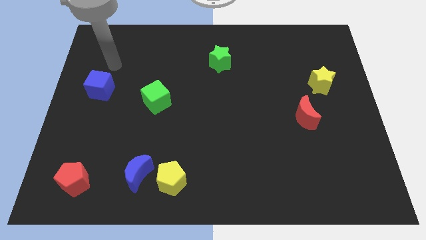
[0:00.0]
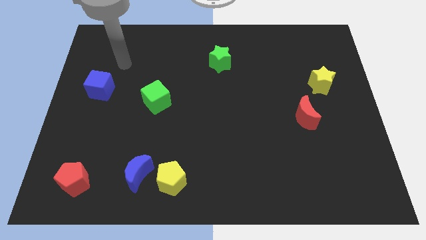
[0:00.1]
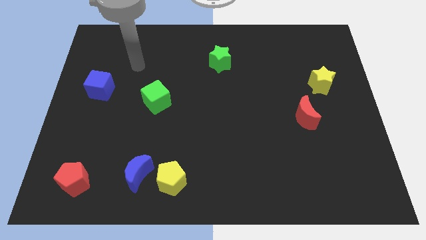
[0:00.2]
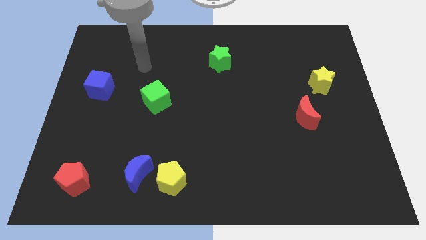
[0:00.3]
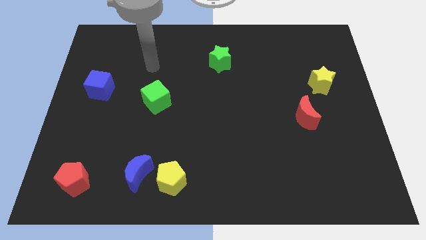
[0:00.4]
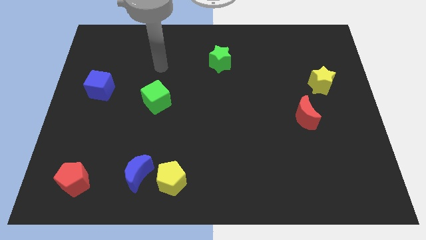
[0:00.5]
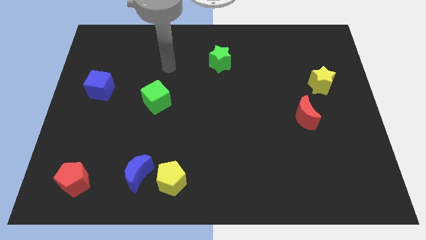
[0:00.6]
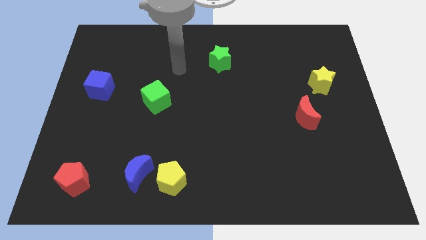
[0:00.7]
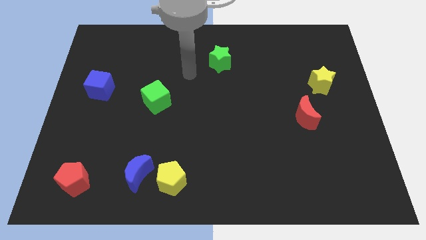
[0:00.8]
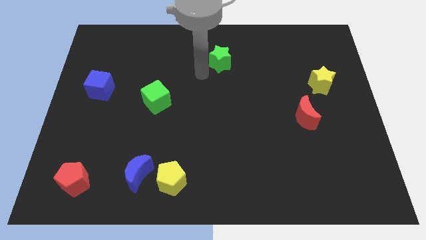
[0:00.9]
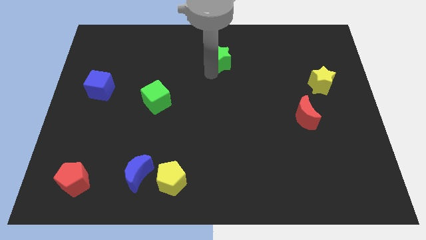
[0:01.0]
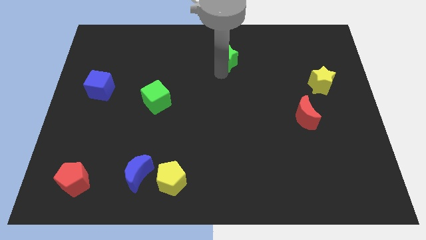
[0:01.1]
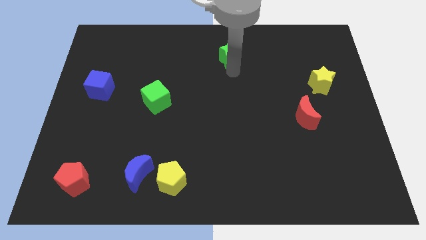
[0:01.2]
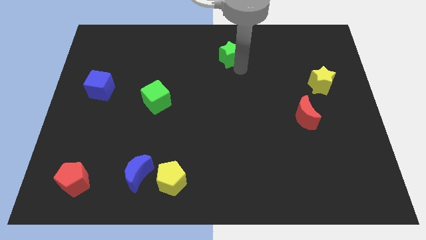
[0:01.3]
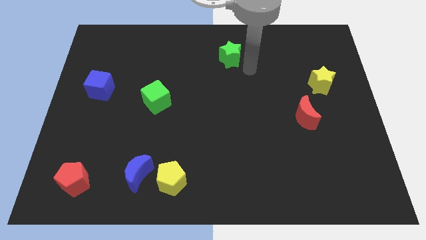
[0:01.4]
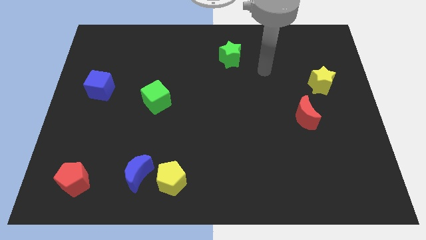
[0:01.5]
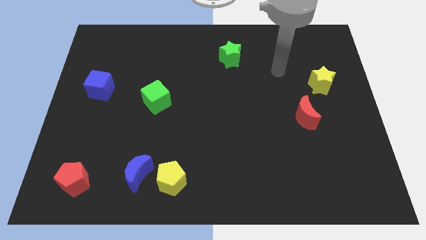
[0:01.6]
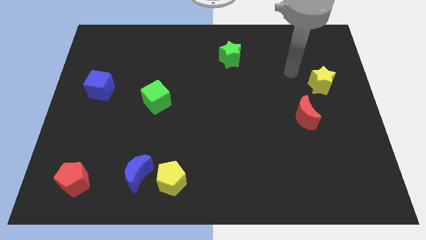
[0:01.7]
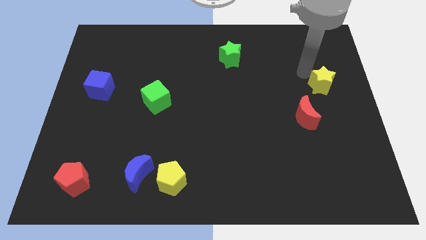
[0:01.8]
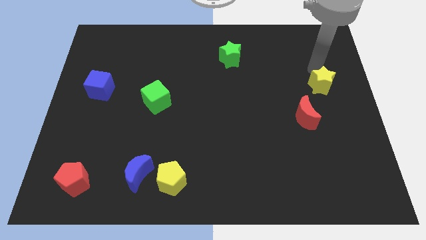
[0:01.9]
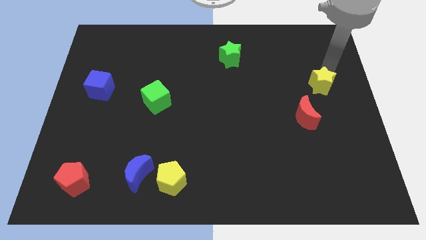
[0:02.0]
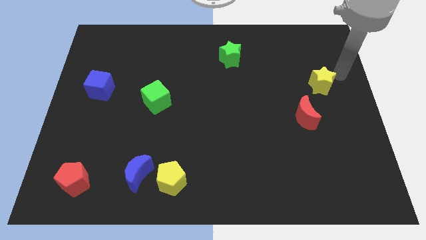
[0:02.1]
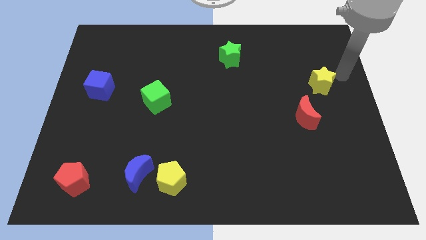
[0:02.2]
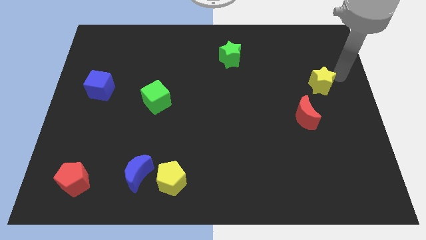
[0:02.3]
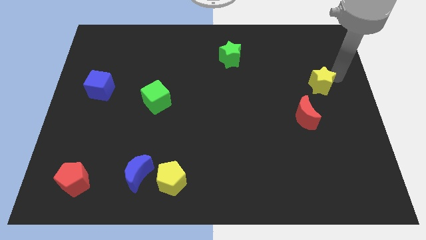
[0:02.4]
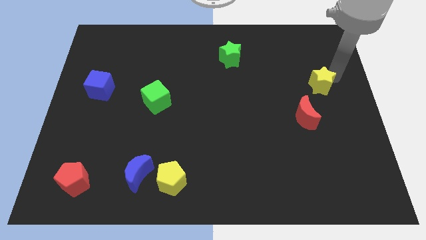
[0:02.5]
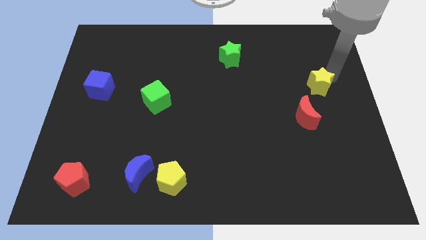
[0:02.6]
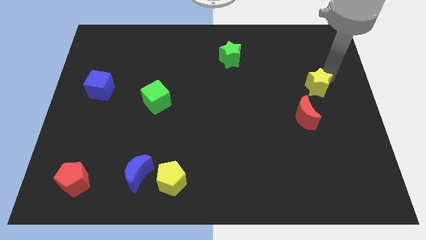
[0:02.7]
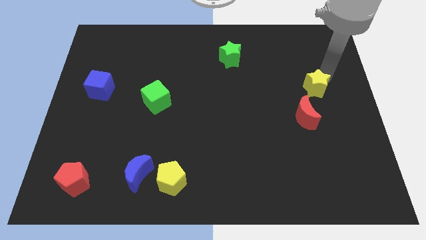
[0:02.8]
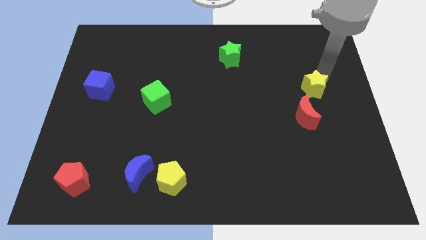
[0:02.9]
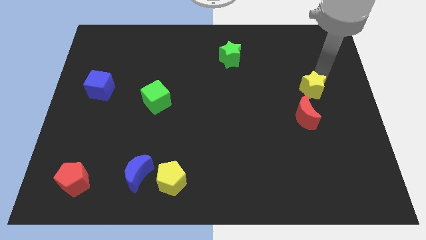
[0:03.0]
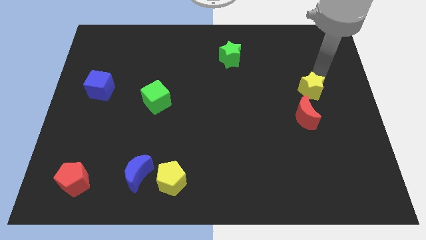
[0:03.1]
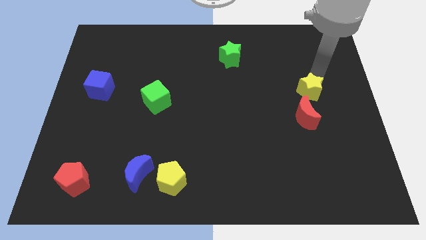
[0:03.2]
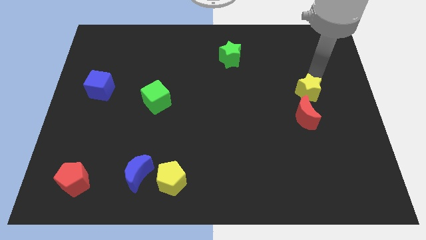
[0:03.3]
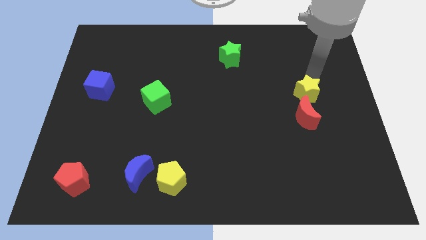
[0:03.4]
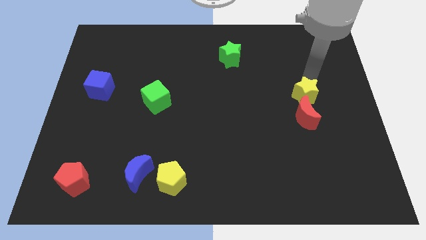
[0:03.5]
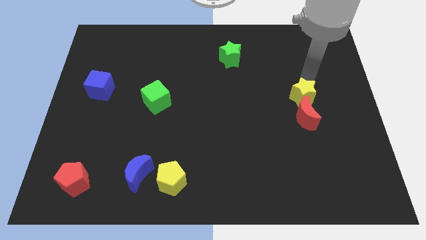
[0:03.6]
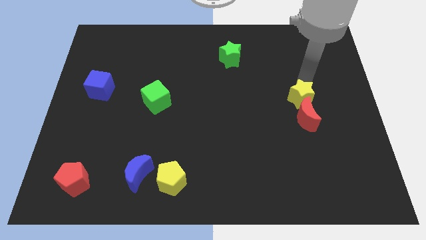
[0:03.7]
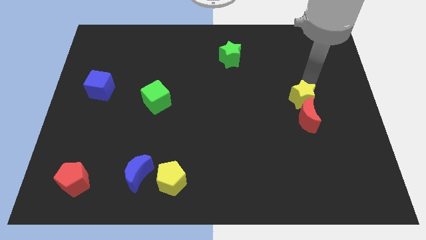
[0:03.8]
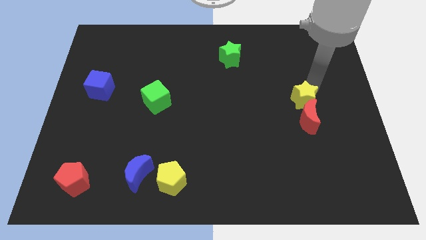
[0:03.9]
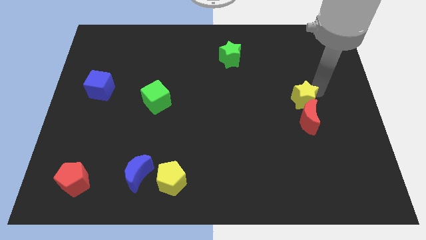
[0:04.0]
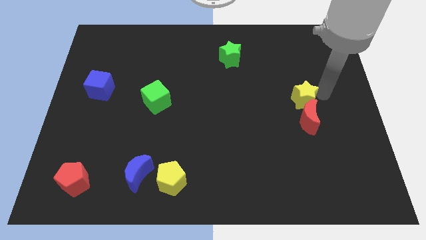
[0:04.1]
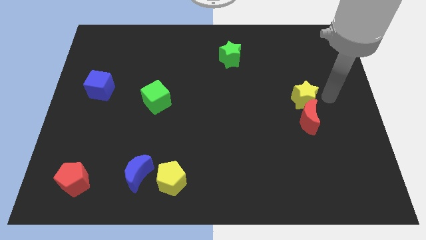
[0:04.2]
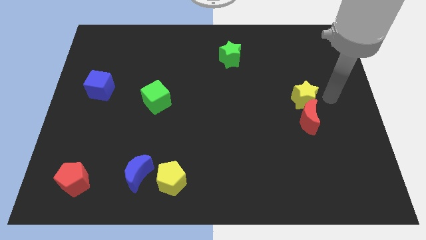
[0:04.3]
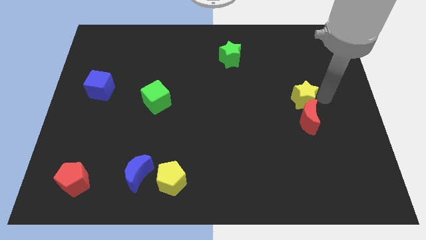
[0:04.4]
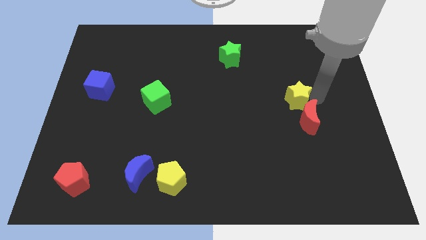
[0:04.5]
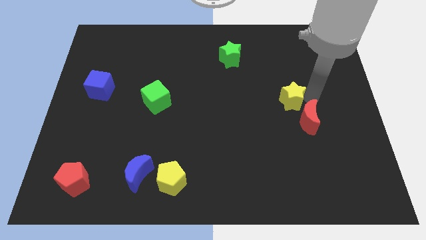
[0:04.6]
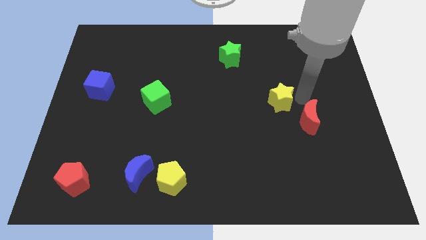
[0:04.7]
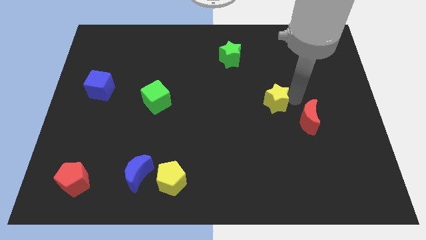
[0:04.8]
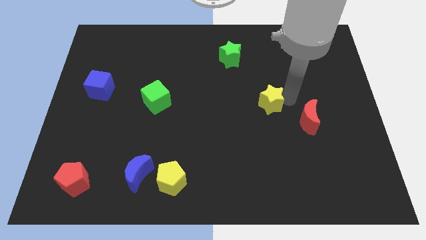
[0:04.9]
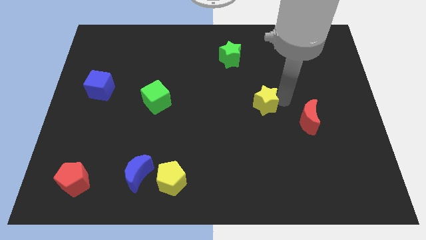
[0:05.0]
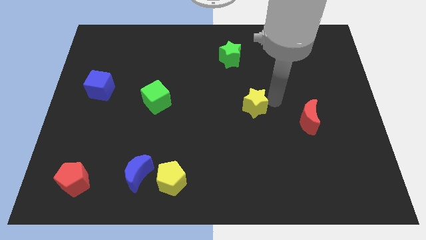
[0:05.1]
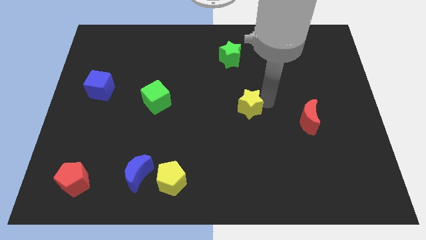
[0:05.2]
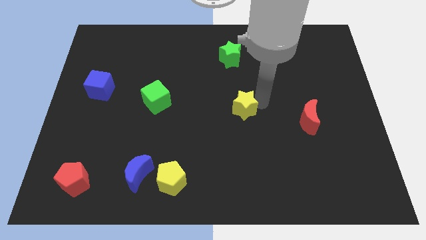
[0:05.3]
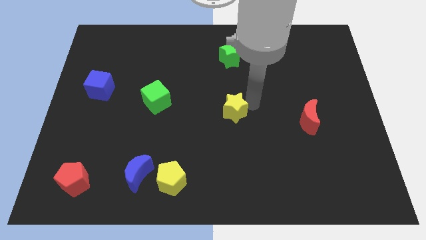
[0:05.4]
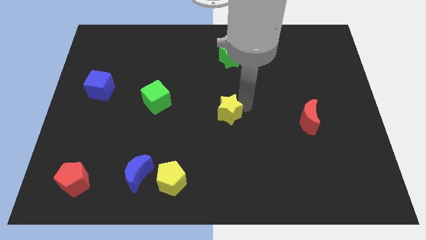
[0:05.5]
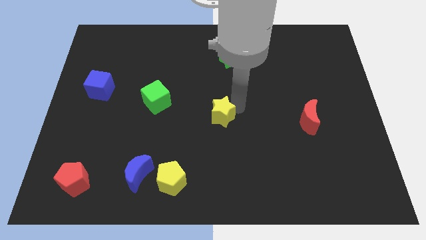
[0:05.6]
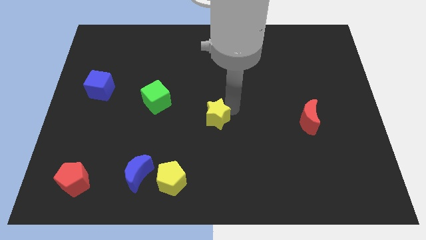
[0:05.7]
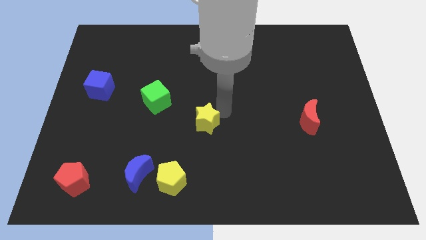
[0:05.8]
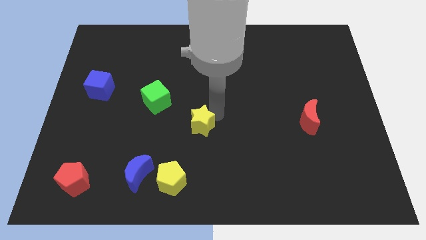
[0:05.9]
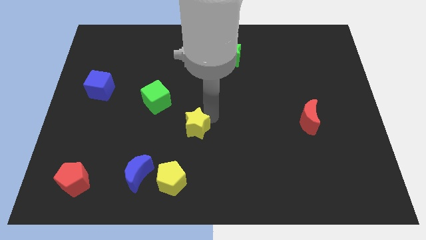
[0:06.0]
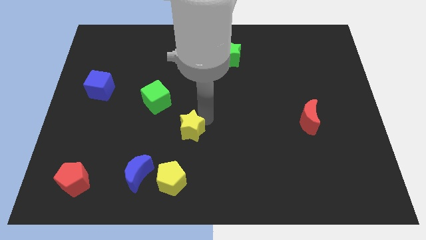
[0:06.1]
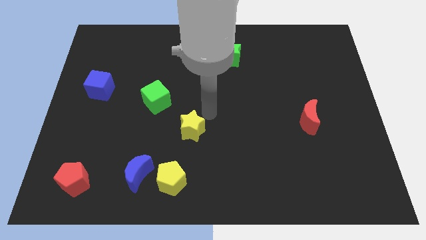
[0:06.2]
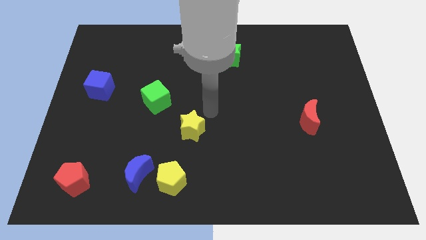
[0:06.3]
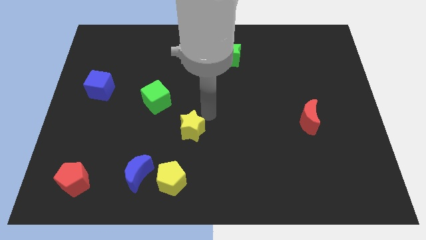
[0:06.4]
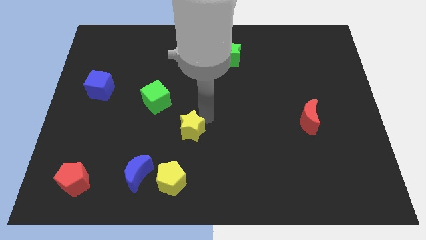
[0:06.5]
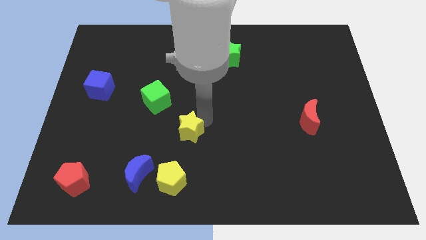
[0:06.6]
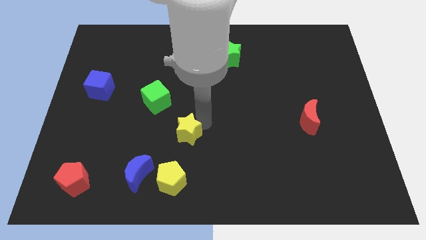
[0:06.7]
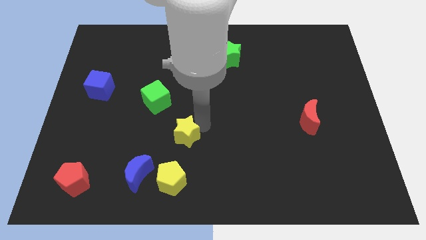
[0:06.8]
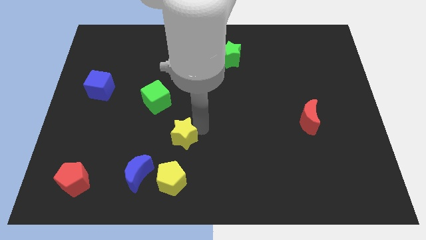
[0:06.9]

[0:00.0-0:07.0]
push the yellow star to the top right side of the blue moon
